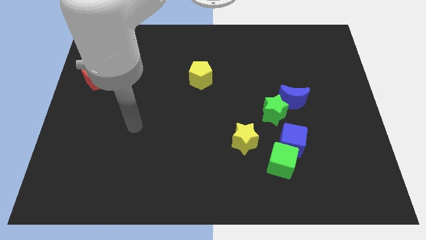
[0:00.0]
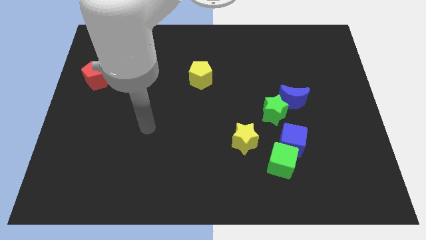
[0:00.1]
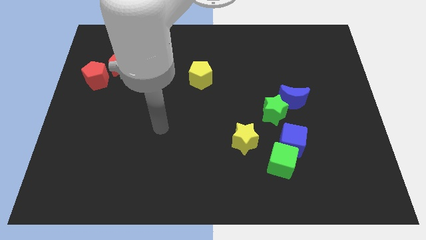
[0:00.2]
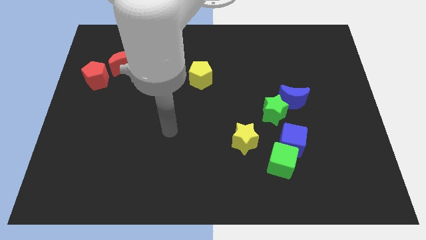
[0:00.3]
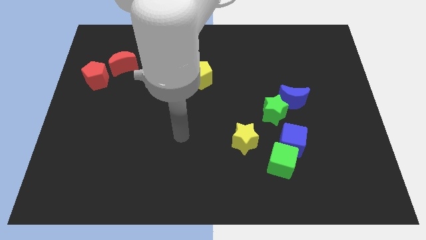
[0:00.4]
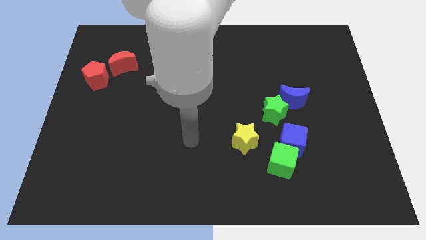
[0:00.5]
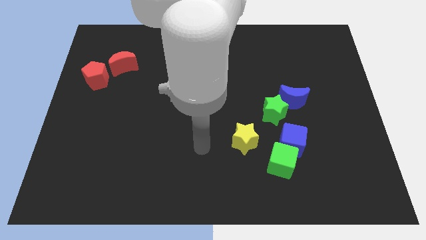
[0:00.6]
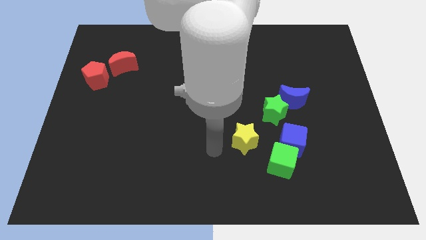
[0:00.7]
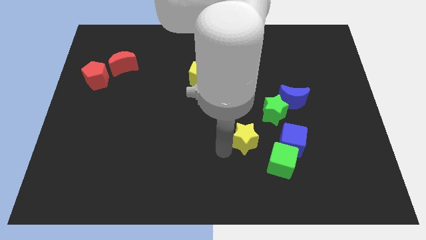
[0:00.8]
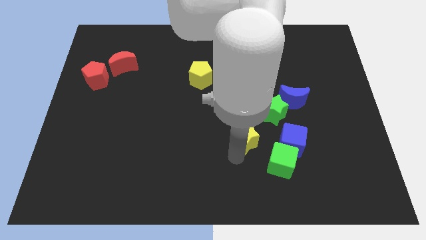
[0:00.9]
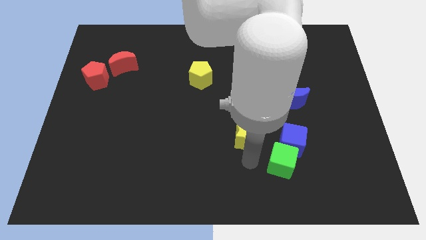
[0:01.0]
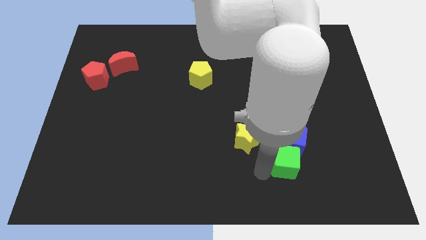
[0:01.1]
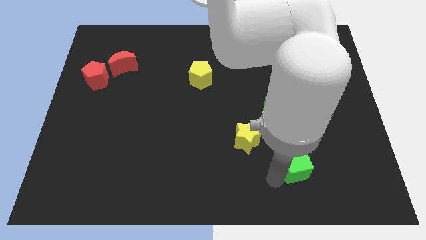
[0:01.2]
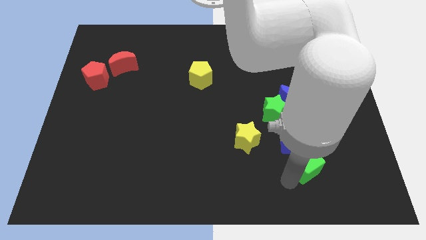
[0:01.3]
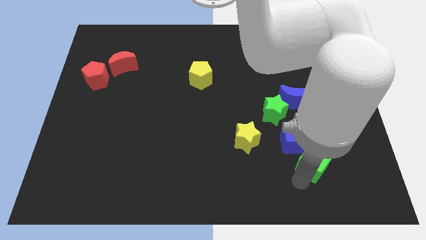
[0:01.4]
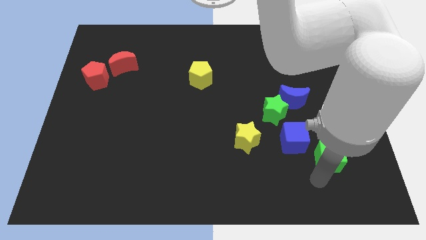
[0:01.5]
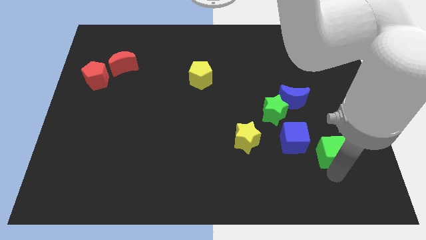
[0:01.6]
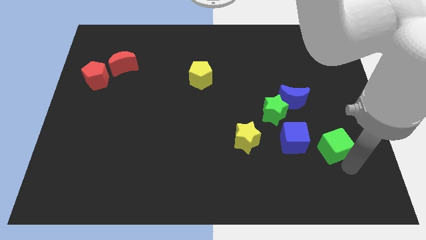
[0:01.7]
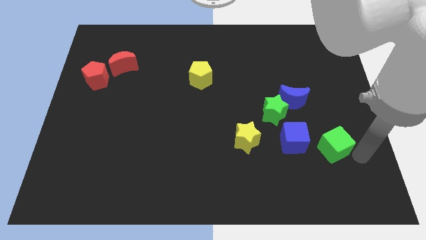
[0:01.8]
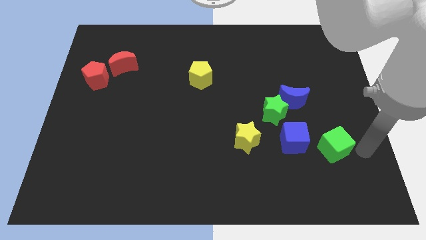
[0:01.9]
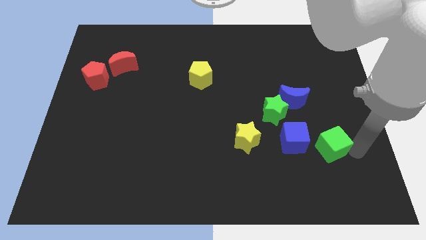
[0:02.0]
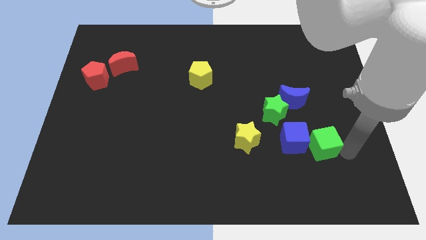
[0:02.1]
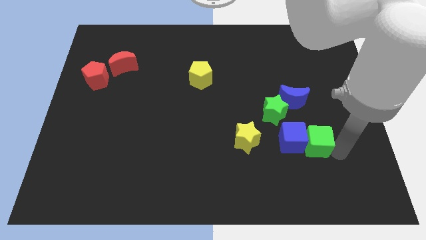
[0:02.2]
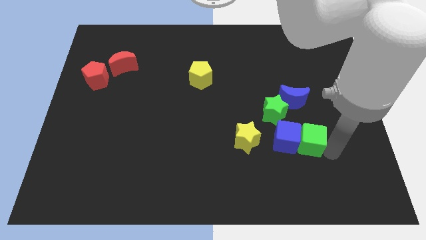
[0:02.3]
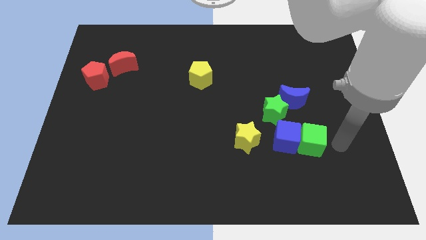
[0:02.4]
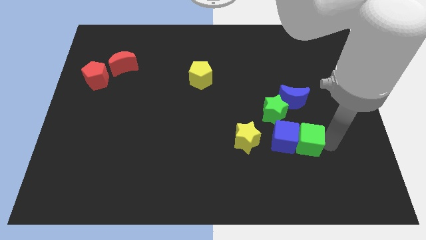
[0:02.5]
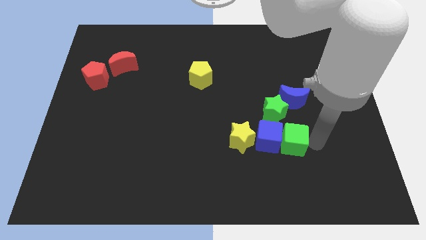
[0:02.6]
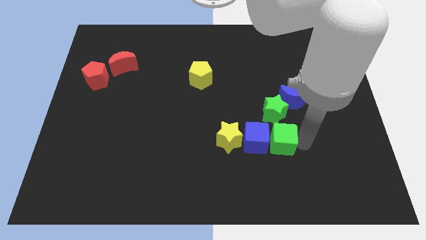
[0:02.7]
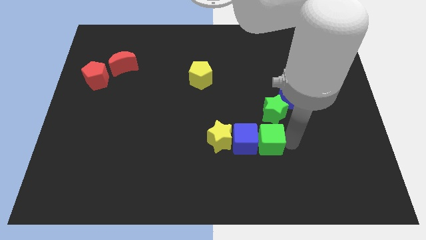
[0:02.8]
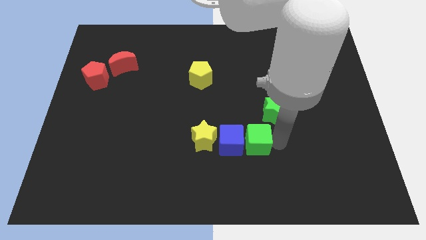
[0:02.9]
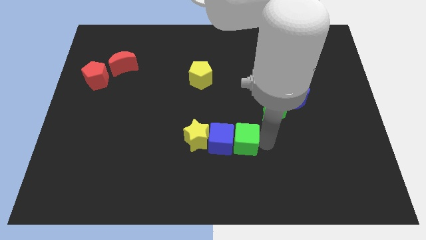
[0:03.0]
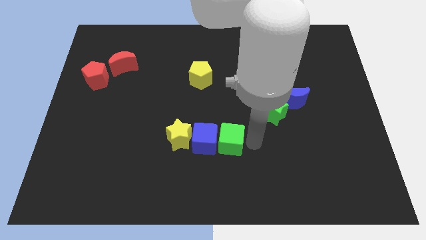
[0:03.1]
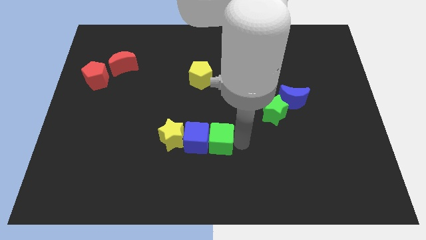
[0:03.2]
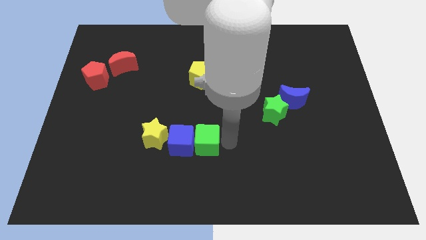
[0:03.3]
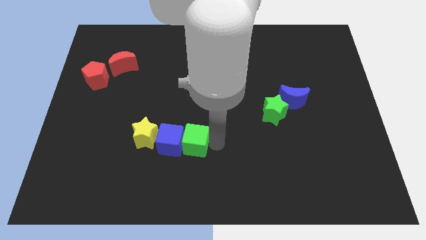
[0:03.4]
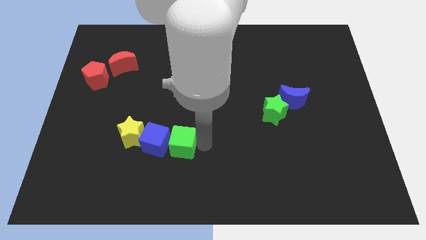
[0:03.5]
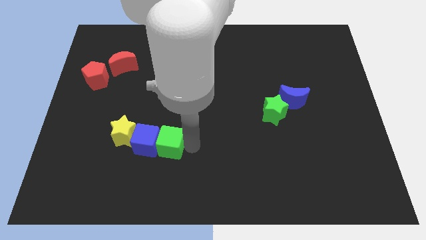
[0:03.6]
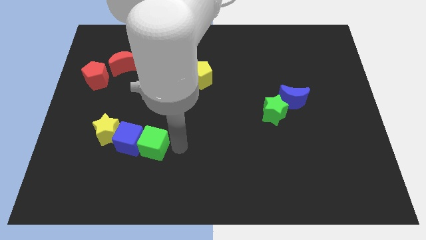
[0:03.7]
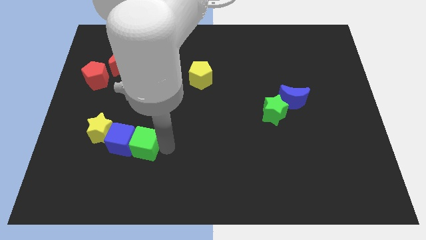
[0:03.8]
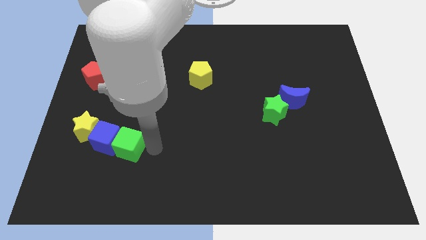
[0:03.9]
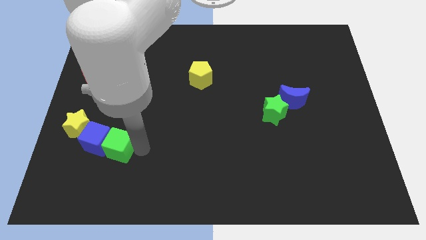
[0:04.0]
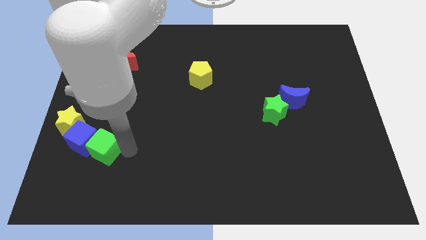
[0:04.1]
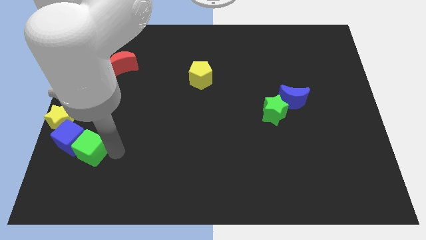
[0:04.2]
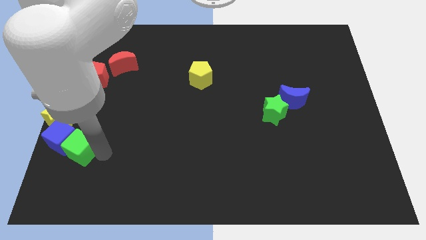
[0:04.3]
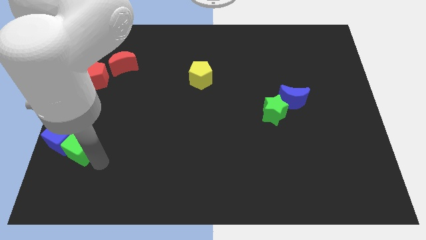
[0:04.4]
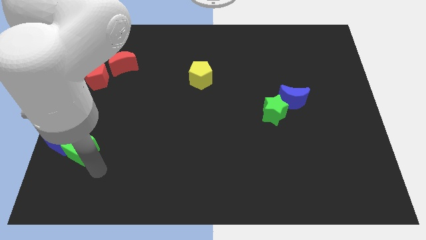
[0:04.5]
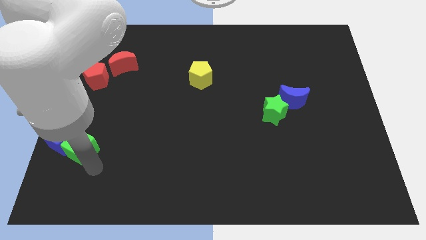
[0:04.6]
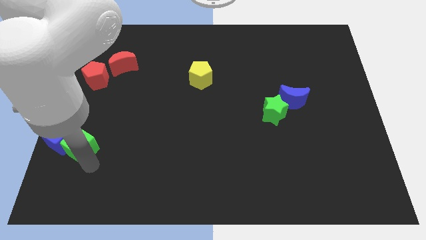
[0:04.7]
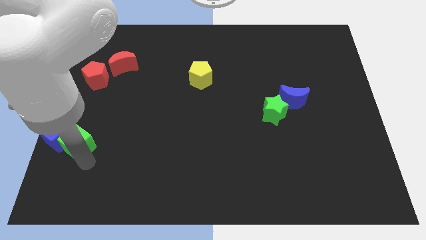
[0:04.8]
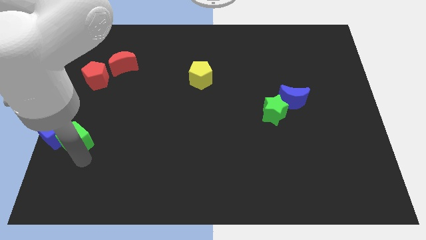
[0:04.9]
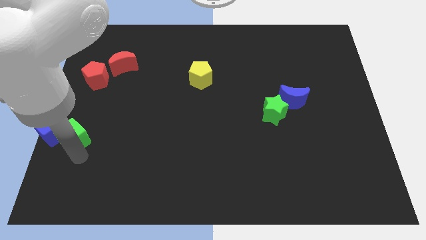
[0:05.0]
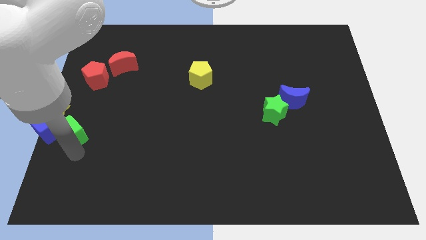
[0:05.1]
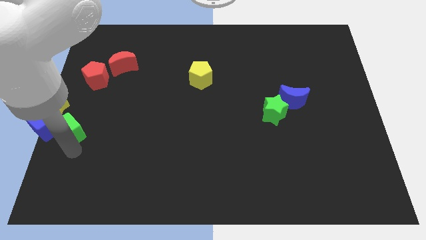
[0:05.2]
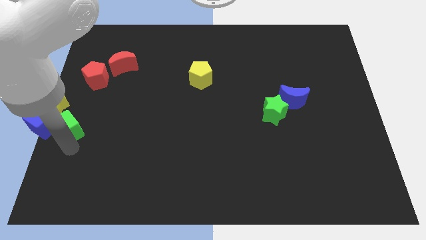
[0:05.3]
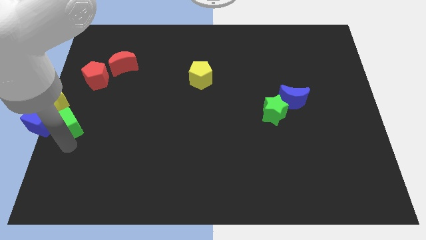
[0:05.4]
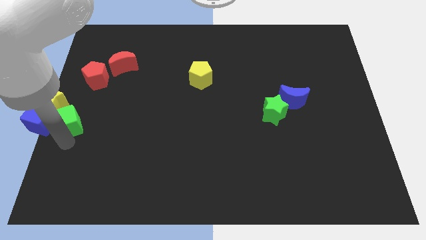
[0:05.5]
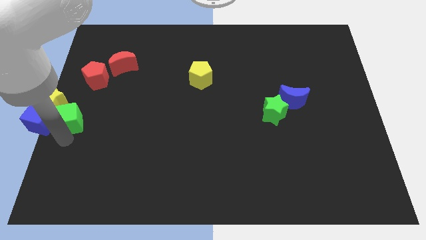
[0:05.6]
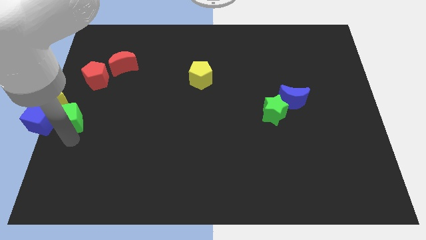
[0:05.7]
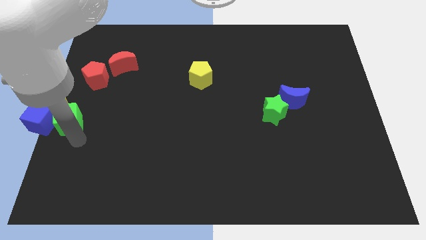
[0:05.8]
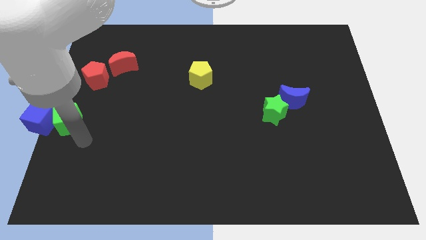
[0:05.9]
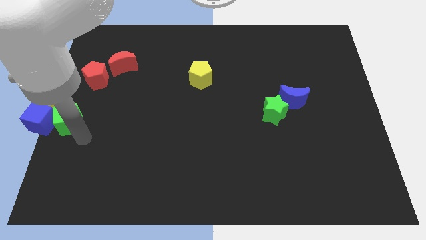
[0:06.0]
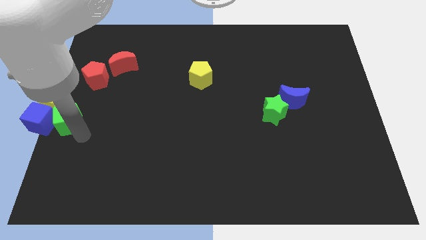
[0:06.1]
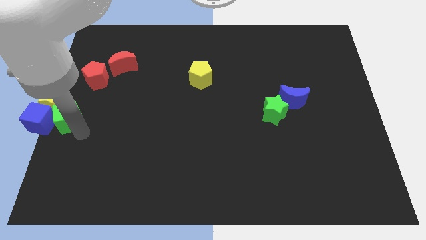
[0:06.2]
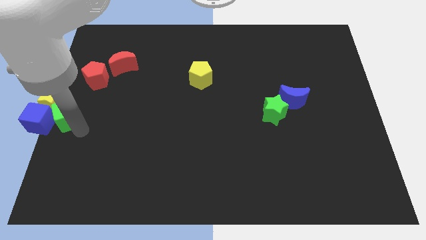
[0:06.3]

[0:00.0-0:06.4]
move the green cube close to the yellow star

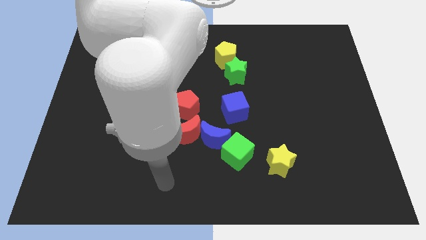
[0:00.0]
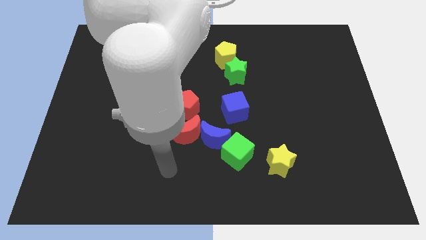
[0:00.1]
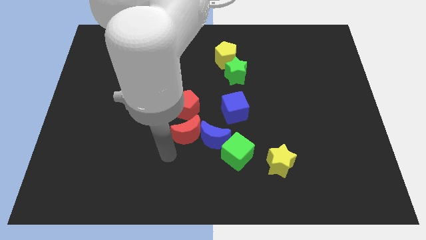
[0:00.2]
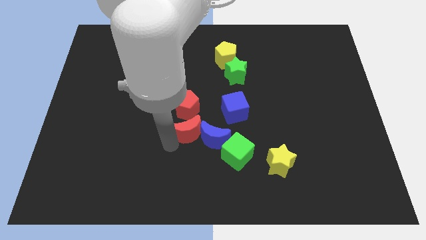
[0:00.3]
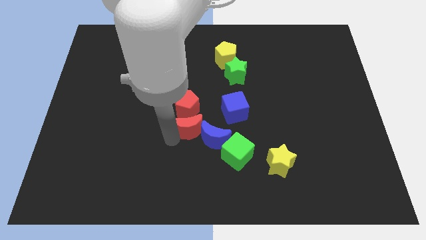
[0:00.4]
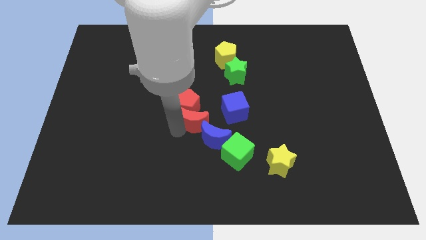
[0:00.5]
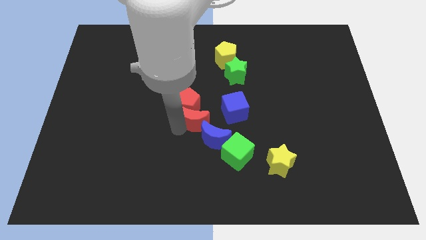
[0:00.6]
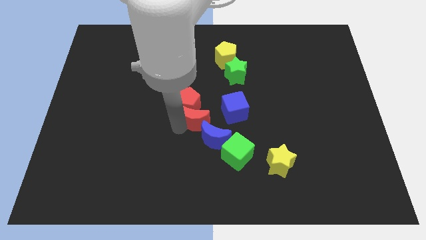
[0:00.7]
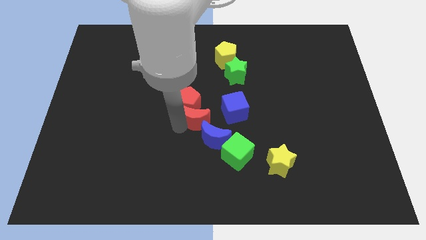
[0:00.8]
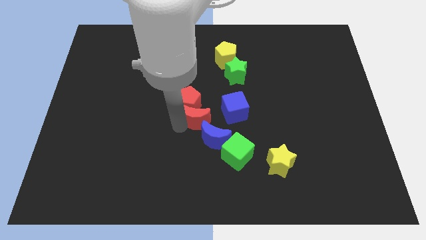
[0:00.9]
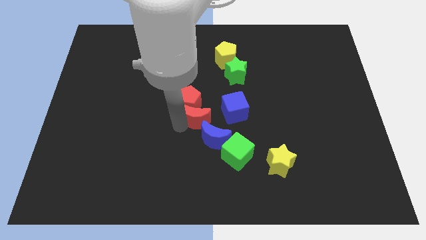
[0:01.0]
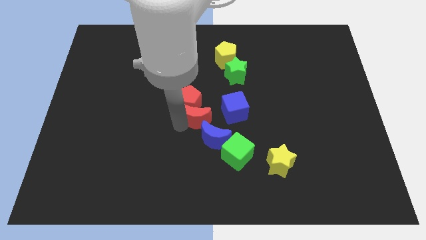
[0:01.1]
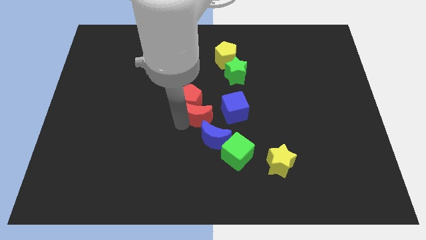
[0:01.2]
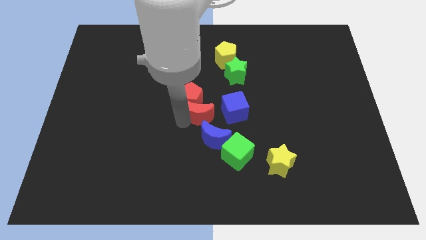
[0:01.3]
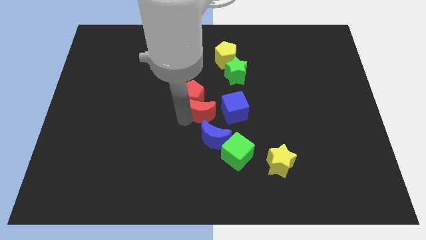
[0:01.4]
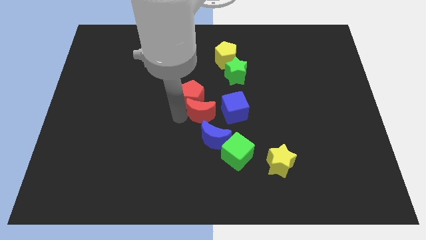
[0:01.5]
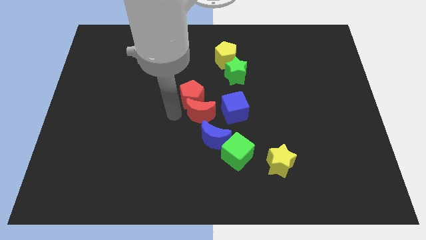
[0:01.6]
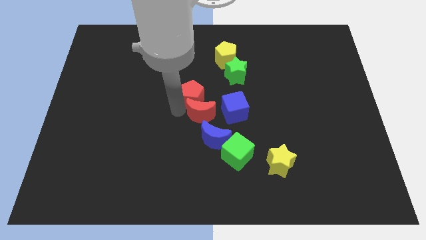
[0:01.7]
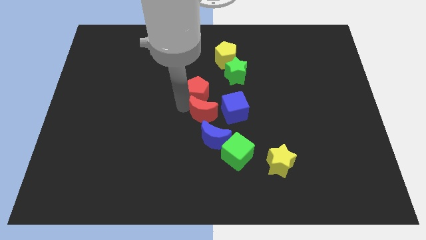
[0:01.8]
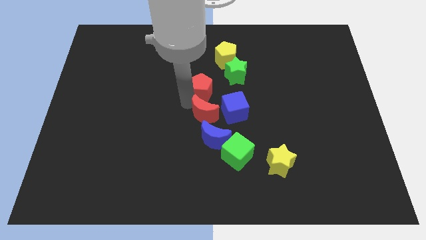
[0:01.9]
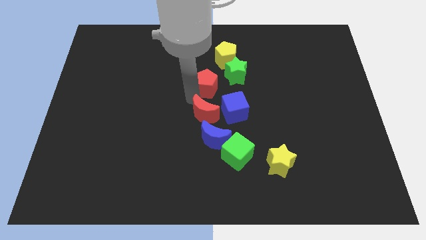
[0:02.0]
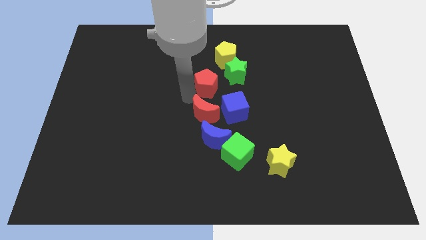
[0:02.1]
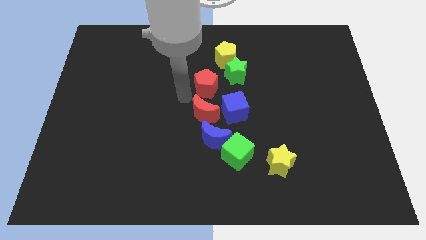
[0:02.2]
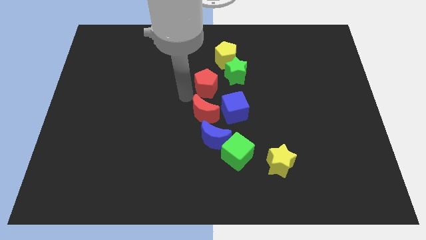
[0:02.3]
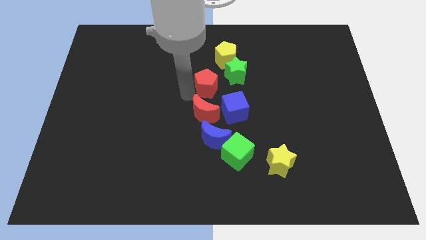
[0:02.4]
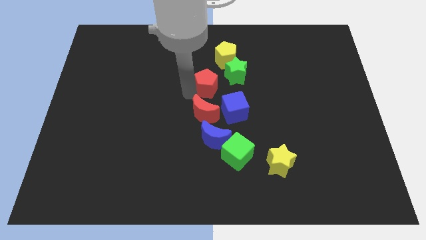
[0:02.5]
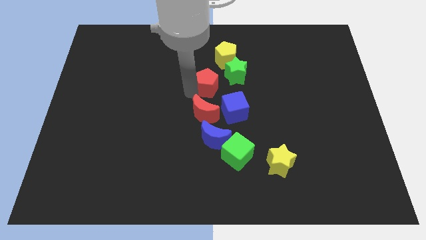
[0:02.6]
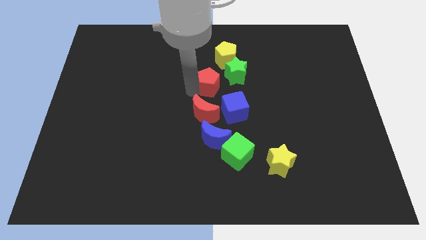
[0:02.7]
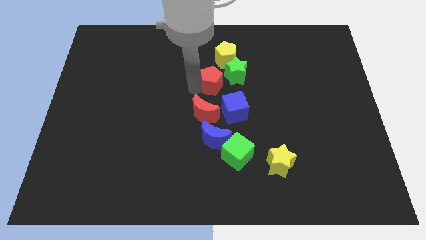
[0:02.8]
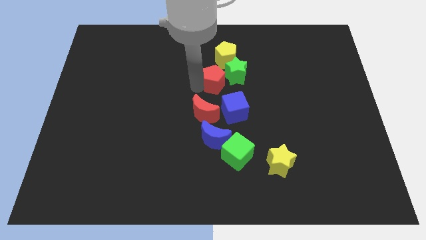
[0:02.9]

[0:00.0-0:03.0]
slide the red pentagon towards the green star
